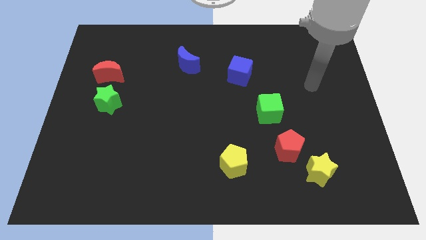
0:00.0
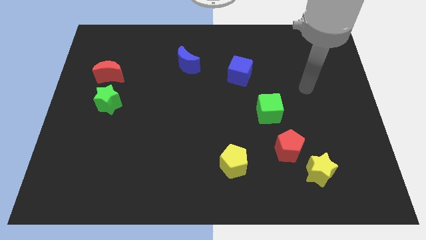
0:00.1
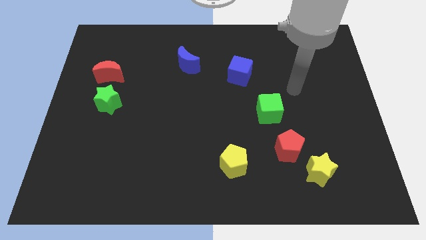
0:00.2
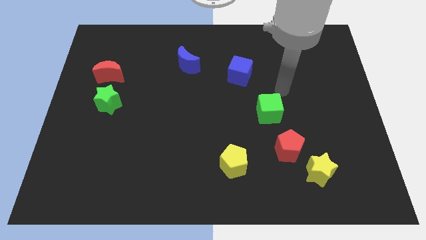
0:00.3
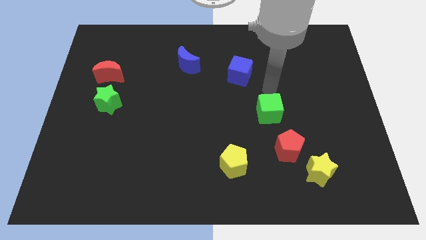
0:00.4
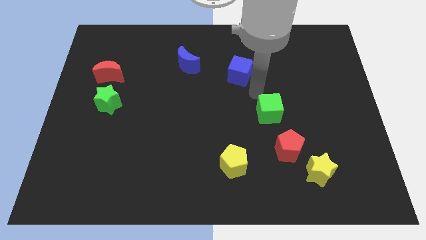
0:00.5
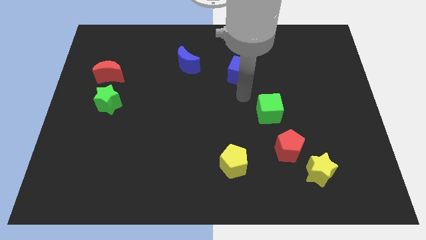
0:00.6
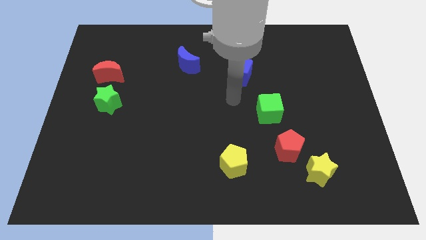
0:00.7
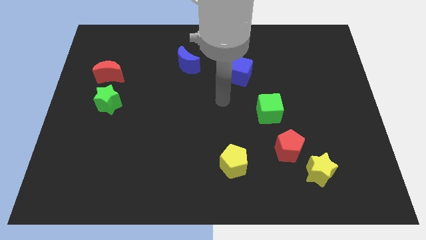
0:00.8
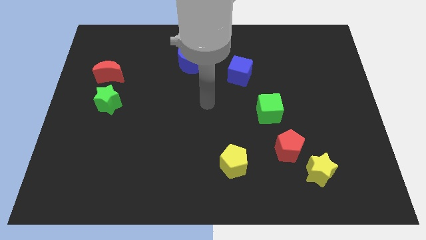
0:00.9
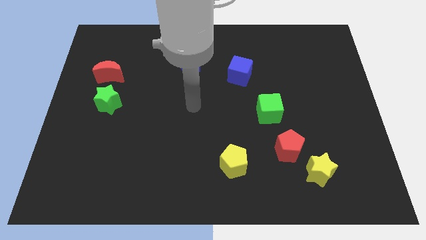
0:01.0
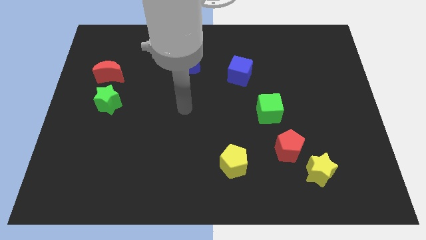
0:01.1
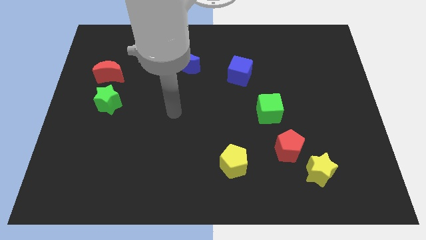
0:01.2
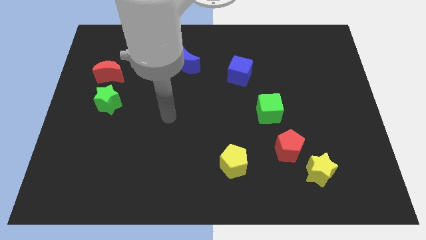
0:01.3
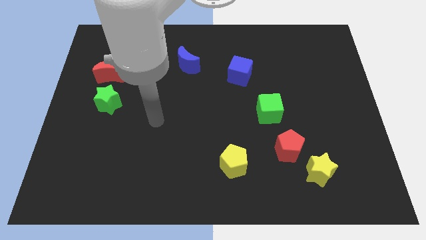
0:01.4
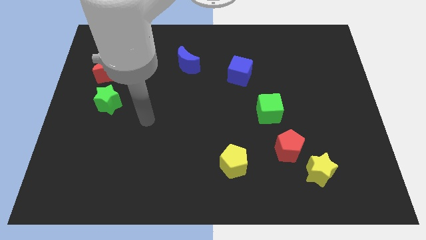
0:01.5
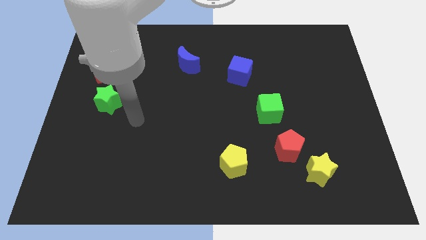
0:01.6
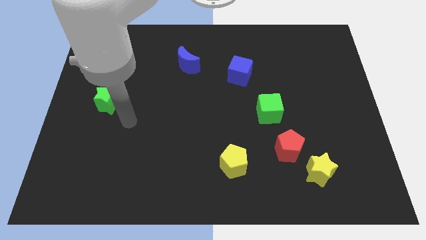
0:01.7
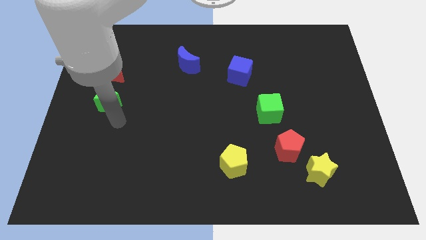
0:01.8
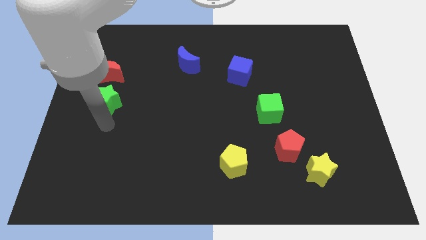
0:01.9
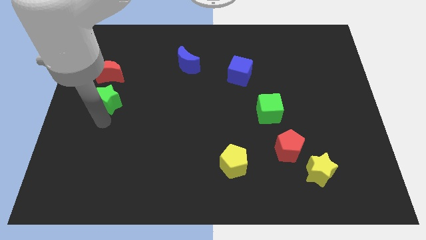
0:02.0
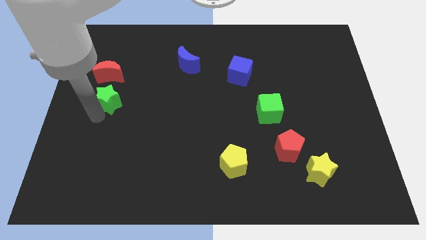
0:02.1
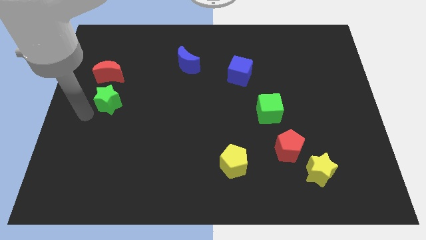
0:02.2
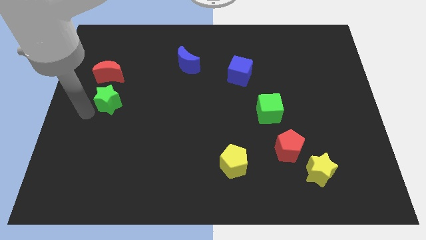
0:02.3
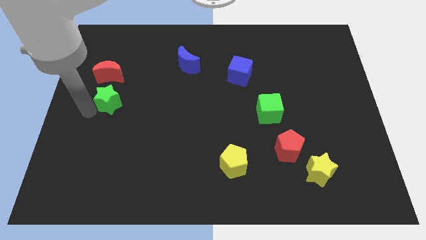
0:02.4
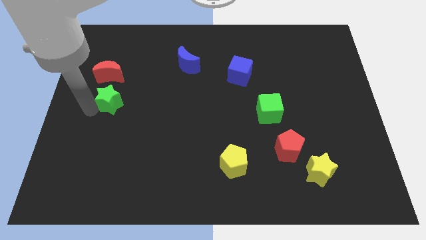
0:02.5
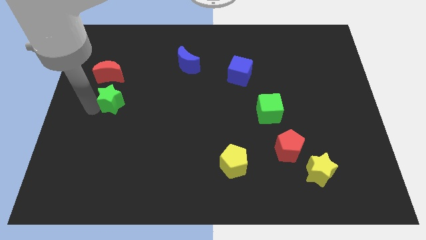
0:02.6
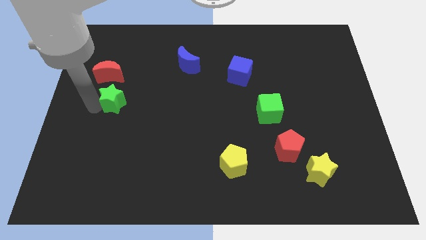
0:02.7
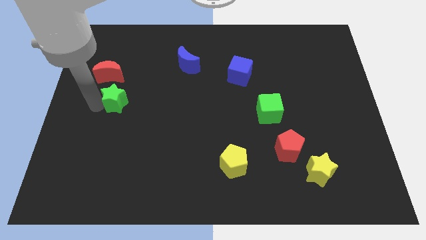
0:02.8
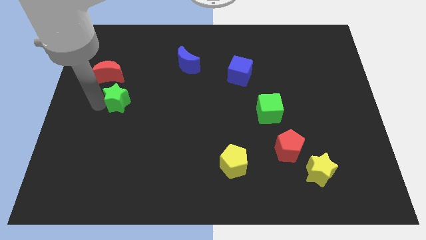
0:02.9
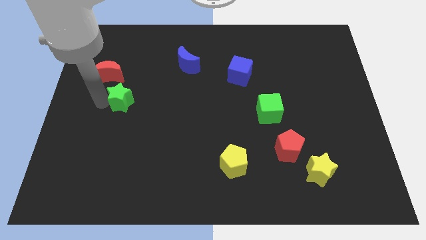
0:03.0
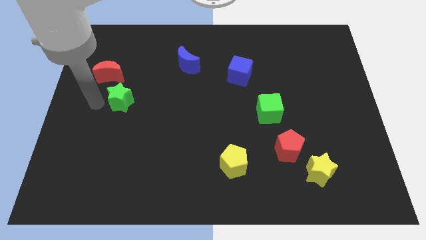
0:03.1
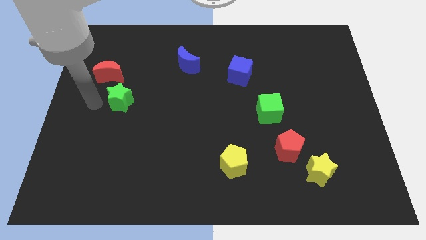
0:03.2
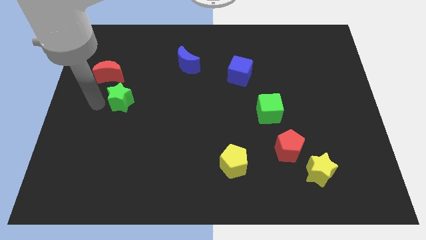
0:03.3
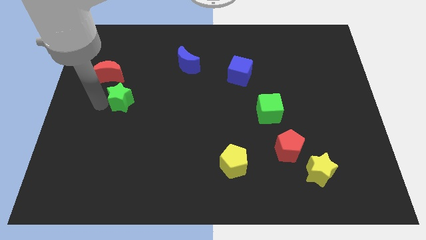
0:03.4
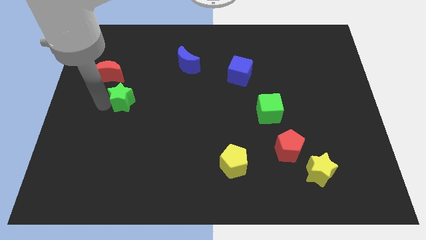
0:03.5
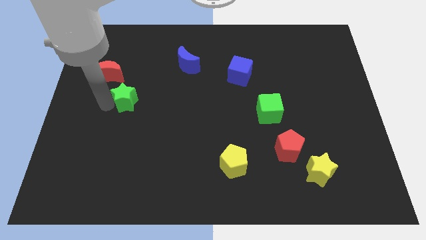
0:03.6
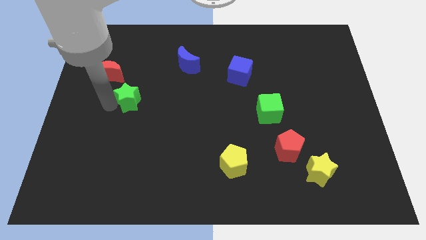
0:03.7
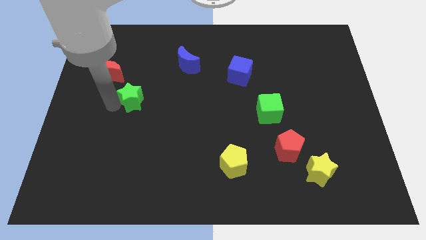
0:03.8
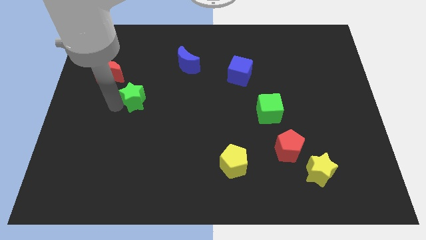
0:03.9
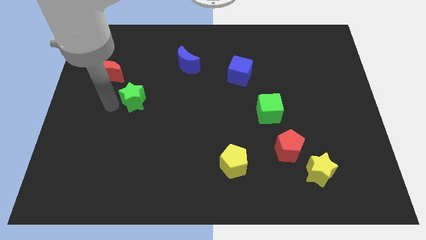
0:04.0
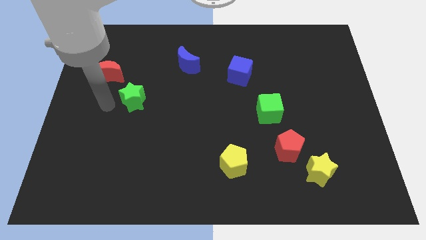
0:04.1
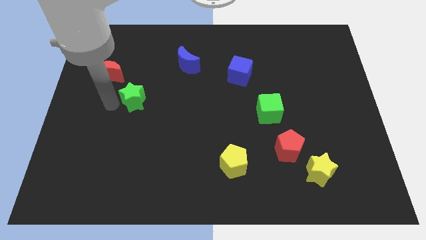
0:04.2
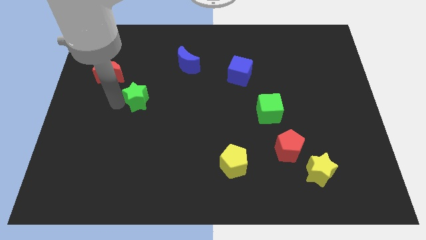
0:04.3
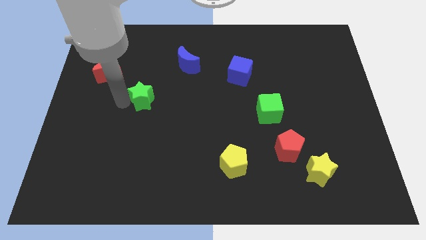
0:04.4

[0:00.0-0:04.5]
slide the green star a little right

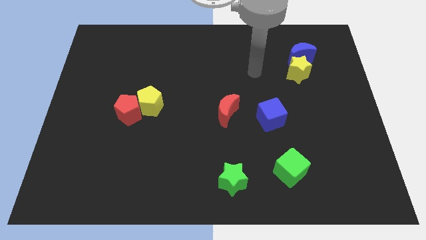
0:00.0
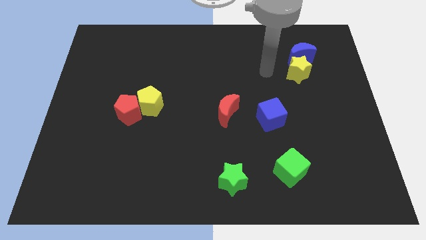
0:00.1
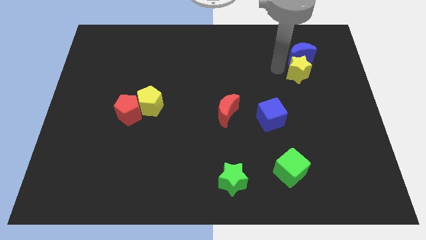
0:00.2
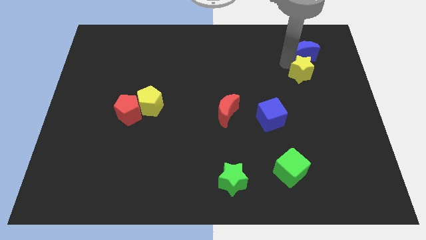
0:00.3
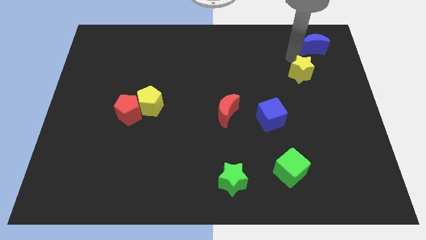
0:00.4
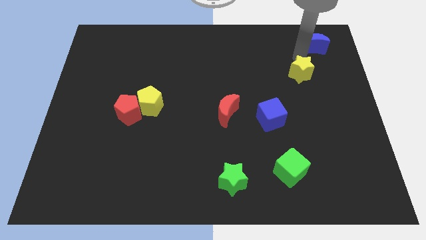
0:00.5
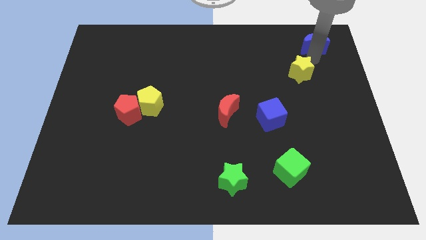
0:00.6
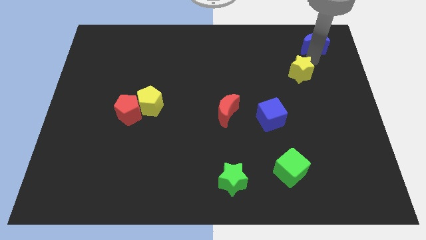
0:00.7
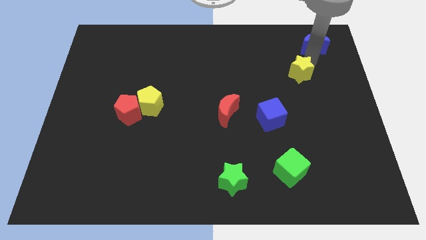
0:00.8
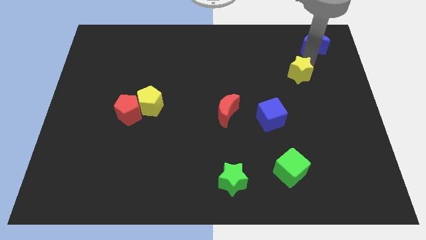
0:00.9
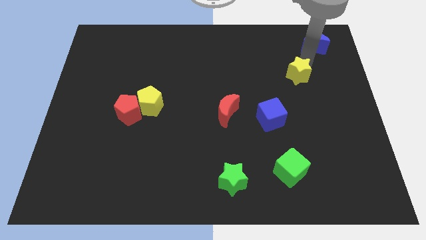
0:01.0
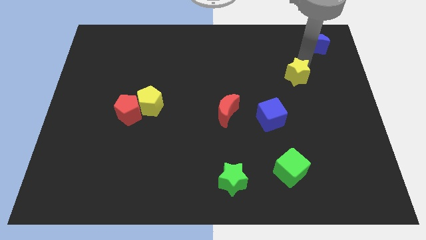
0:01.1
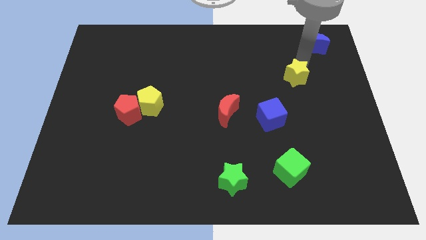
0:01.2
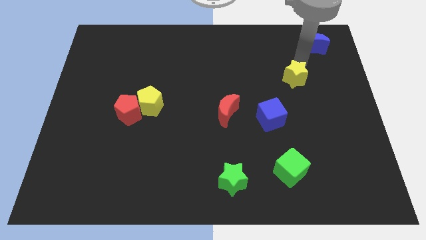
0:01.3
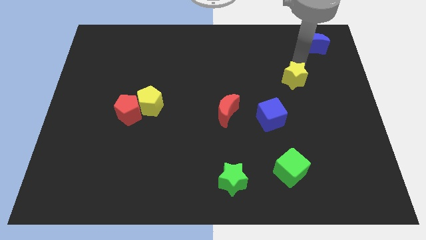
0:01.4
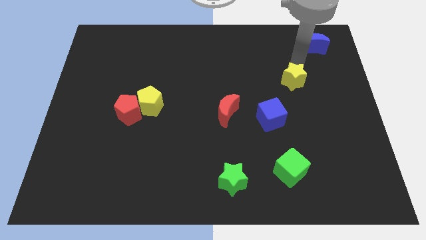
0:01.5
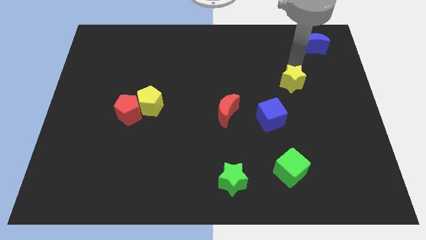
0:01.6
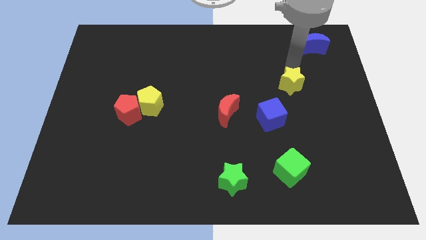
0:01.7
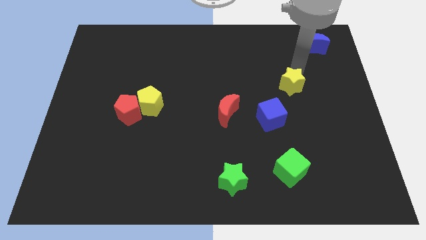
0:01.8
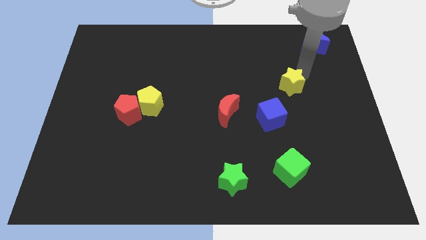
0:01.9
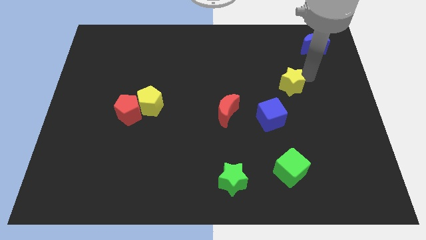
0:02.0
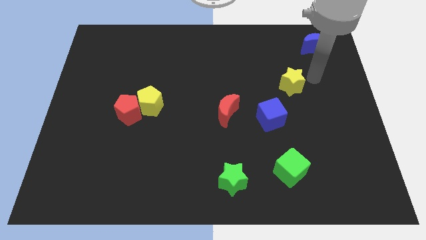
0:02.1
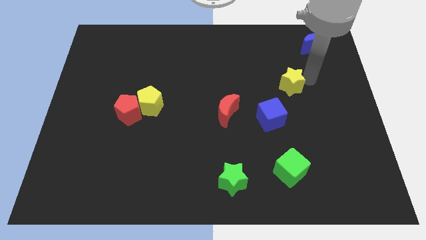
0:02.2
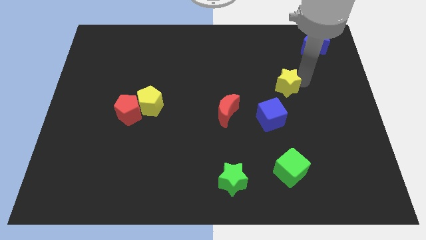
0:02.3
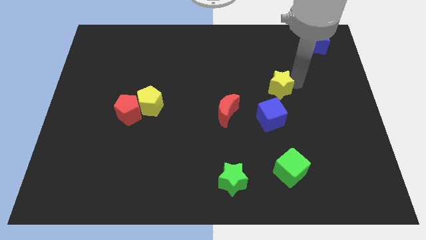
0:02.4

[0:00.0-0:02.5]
slide the yellow star slightly downwards and then left

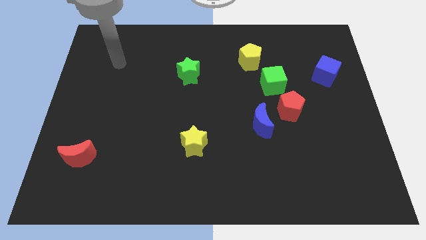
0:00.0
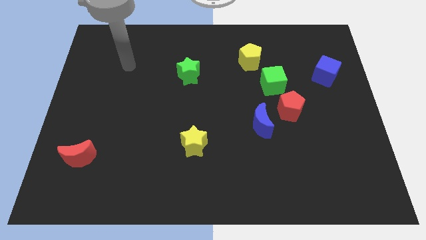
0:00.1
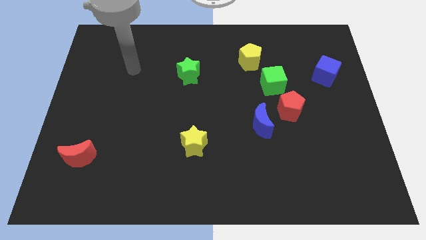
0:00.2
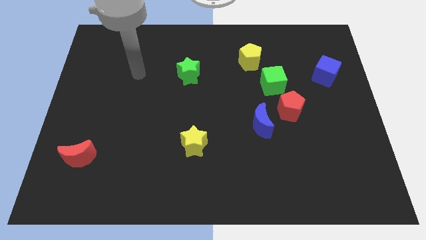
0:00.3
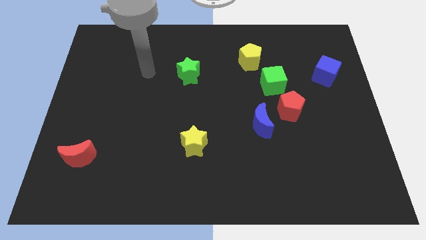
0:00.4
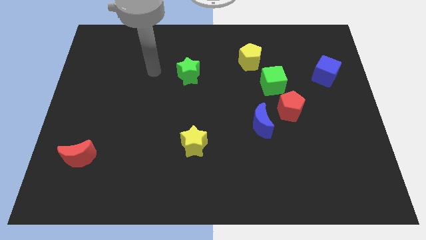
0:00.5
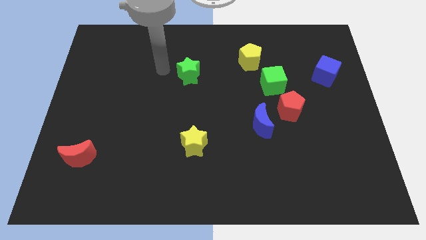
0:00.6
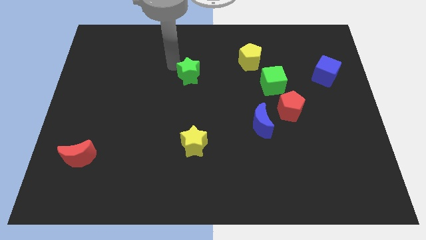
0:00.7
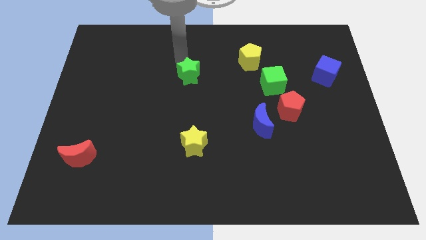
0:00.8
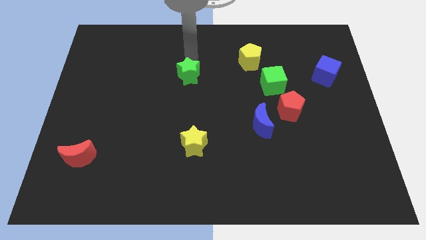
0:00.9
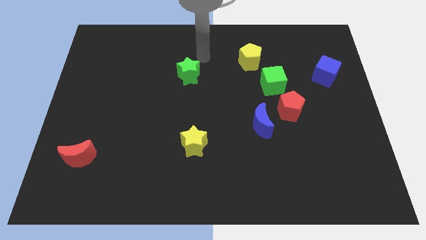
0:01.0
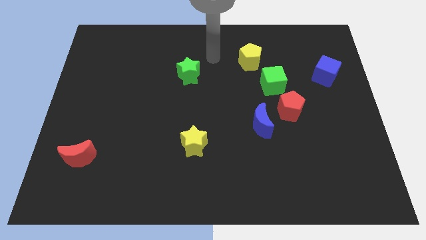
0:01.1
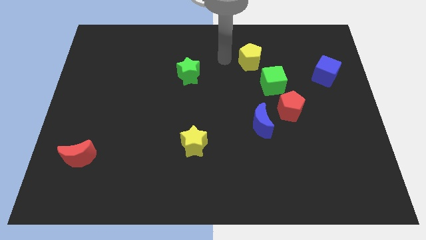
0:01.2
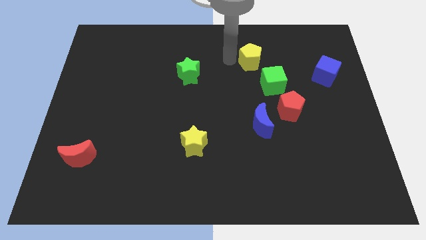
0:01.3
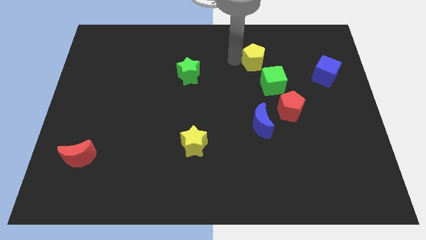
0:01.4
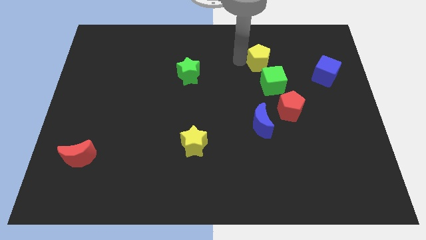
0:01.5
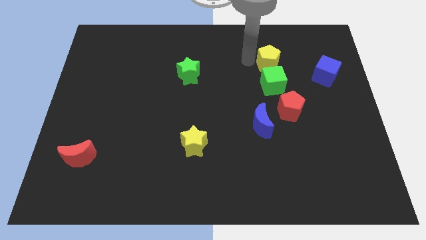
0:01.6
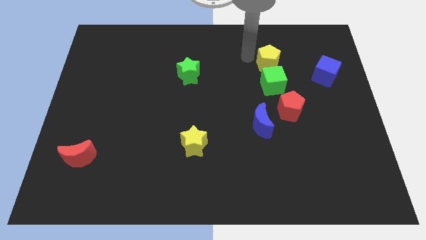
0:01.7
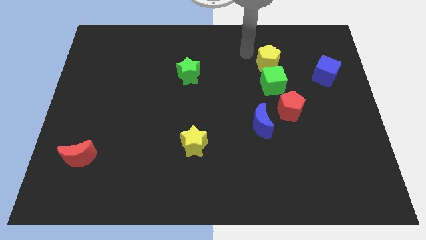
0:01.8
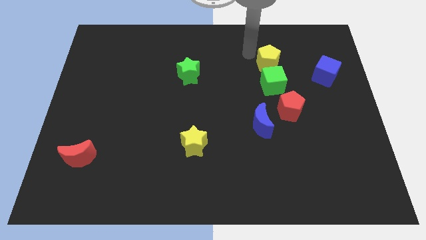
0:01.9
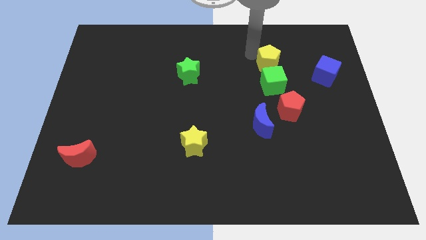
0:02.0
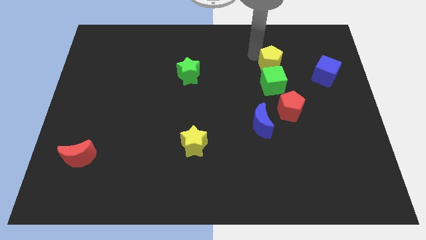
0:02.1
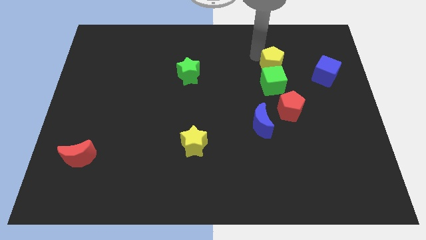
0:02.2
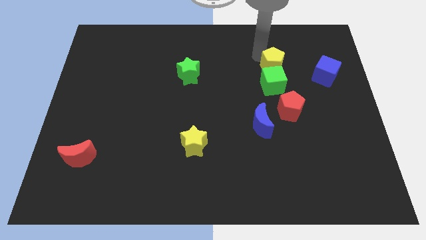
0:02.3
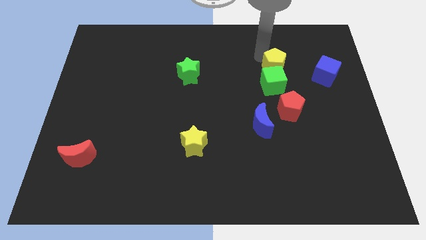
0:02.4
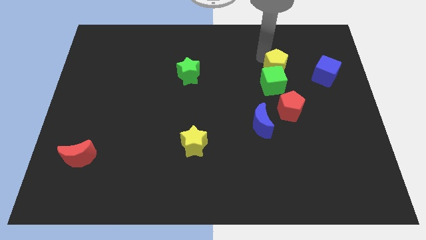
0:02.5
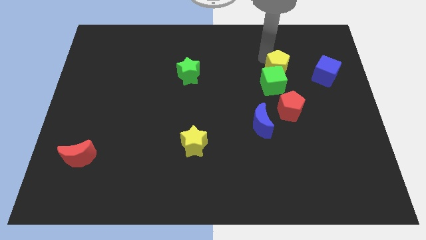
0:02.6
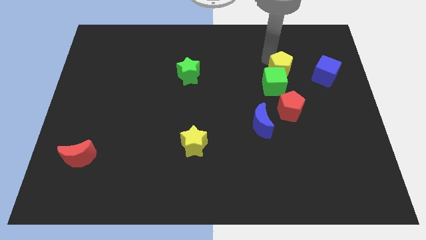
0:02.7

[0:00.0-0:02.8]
slightly move the yellow pentagon down and to the right diagonally
